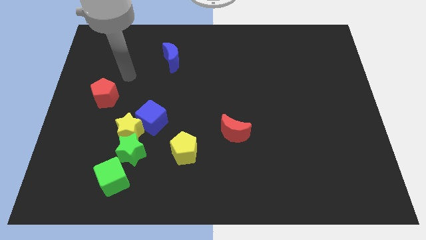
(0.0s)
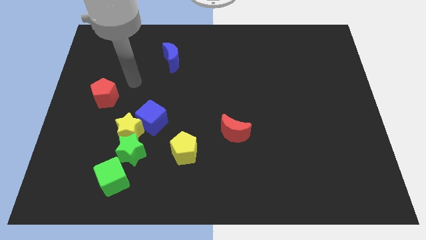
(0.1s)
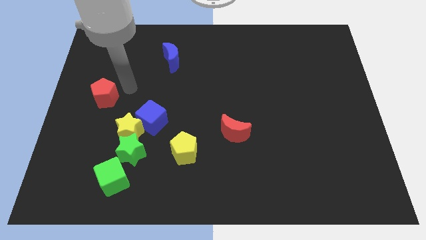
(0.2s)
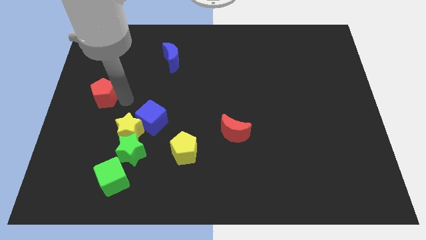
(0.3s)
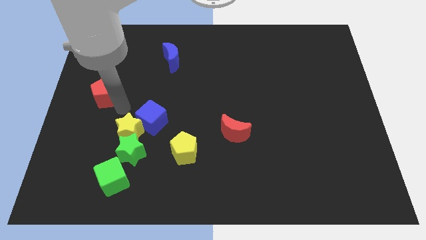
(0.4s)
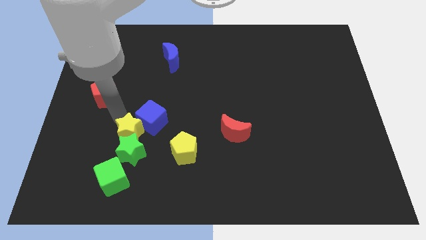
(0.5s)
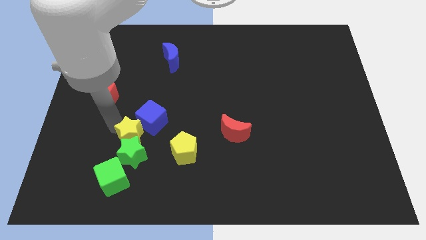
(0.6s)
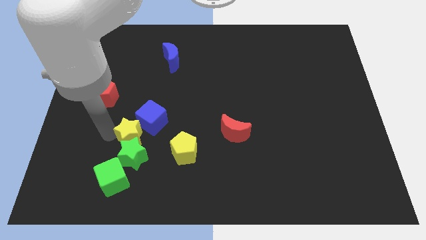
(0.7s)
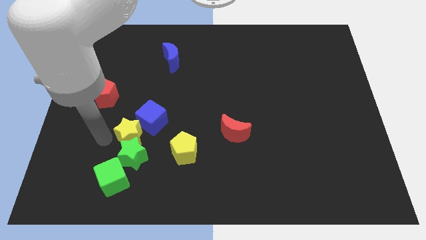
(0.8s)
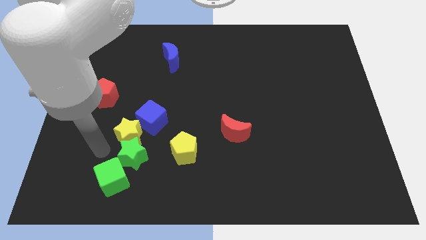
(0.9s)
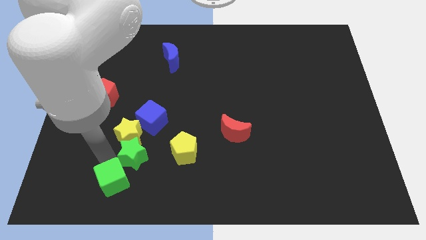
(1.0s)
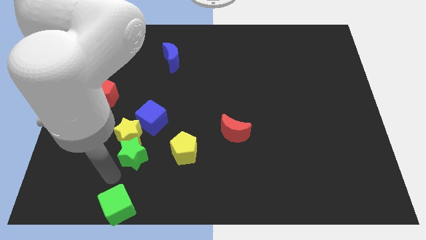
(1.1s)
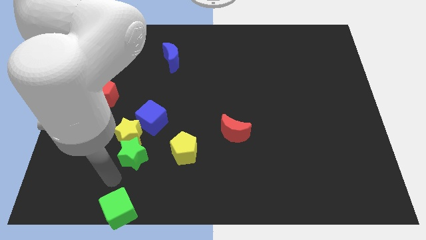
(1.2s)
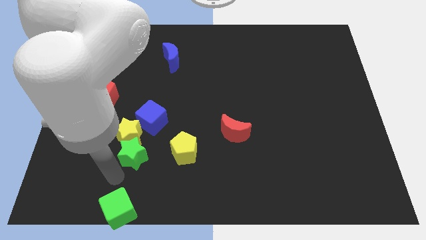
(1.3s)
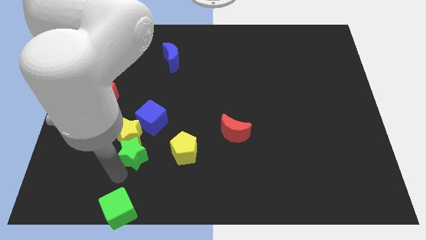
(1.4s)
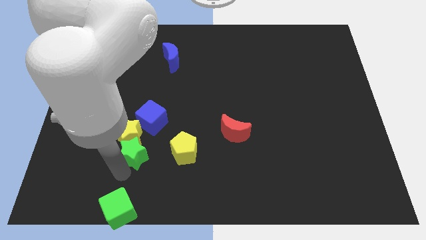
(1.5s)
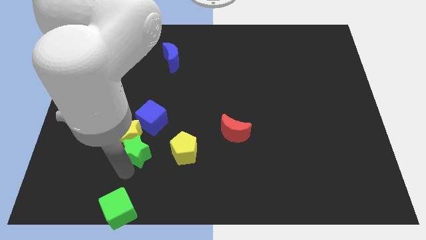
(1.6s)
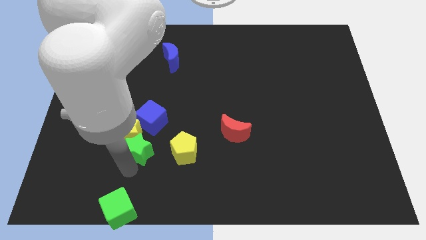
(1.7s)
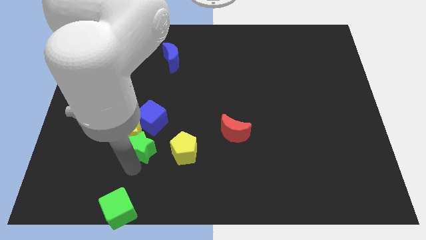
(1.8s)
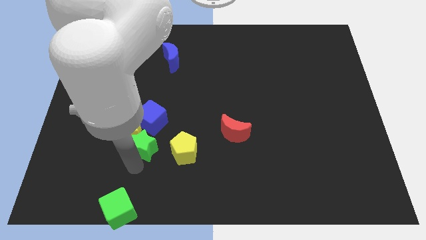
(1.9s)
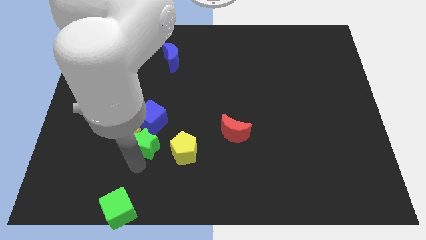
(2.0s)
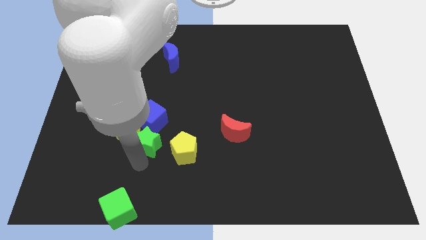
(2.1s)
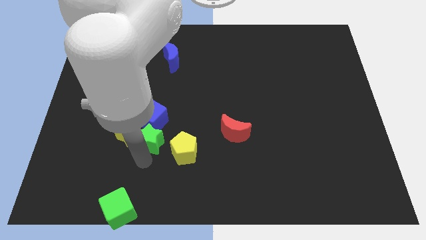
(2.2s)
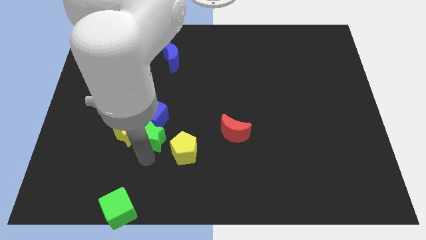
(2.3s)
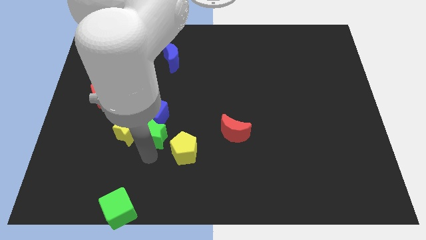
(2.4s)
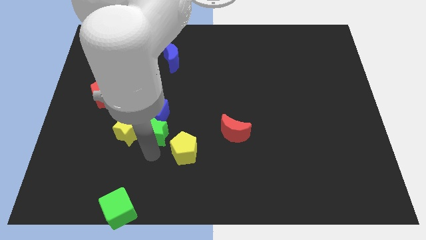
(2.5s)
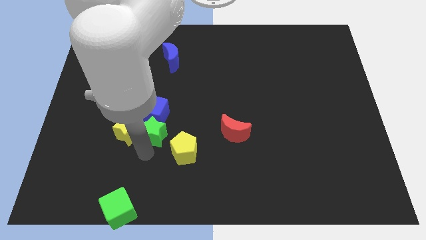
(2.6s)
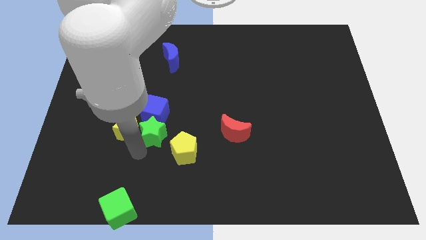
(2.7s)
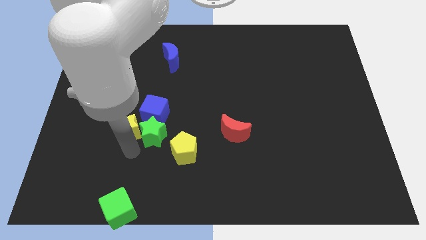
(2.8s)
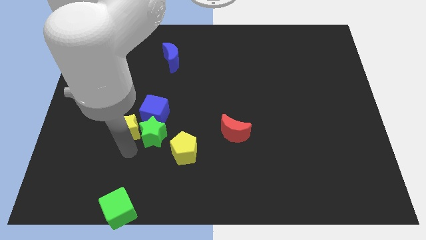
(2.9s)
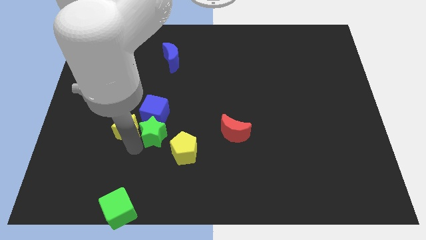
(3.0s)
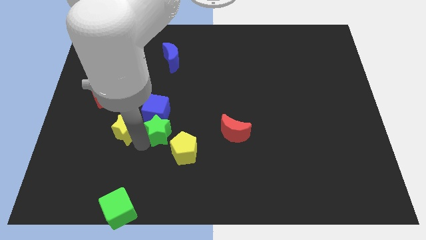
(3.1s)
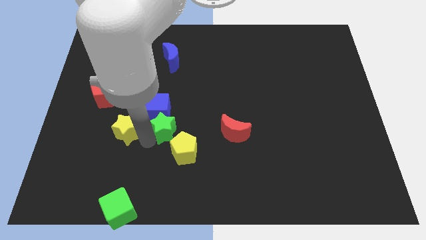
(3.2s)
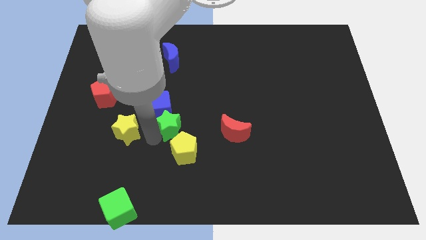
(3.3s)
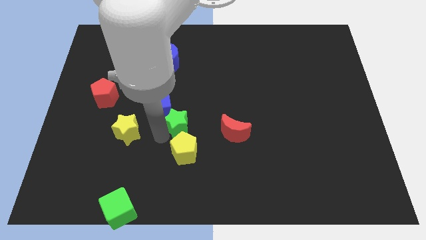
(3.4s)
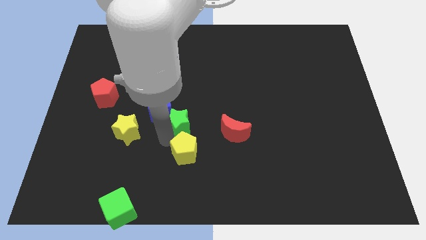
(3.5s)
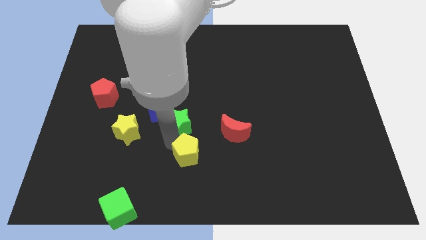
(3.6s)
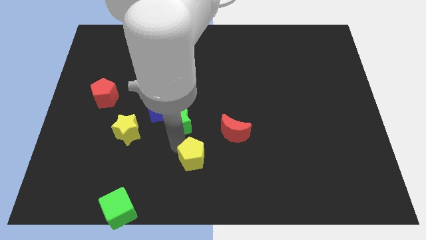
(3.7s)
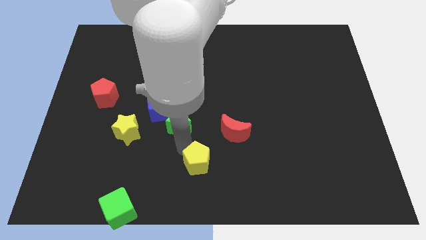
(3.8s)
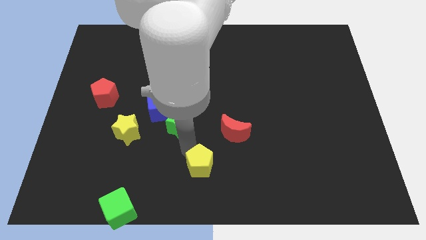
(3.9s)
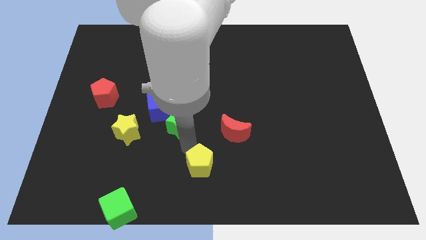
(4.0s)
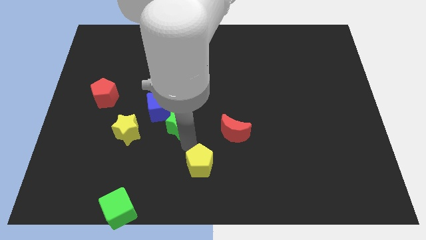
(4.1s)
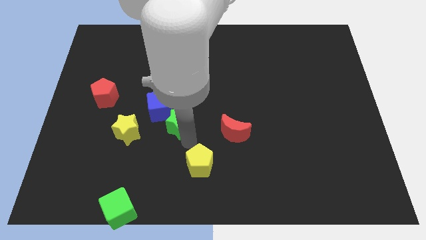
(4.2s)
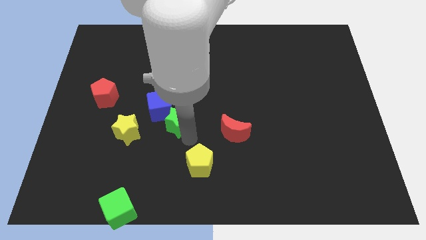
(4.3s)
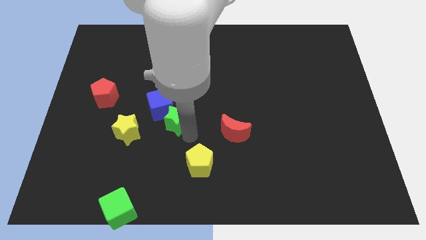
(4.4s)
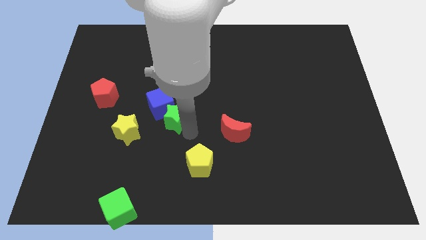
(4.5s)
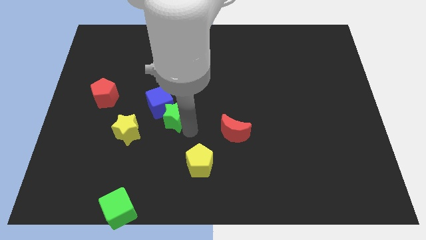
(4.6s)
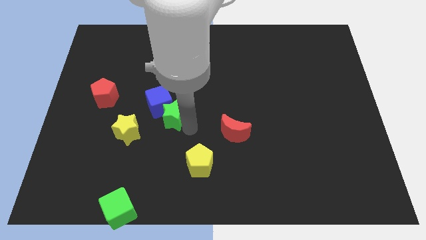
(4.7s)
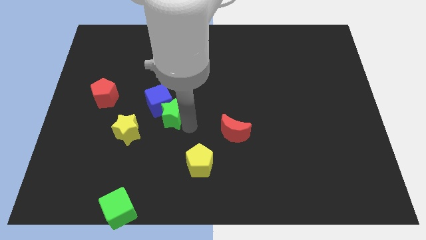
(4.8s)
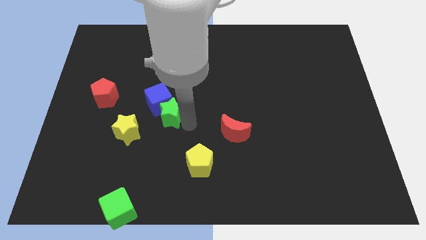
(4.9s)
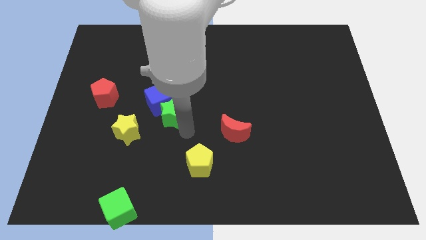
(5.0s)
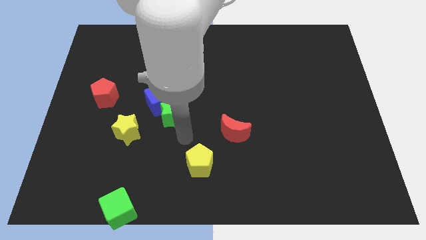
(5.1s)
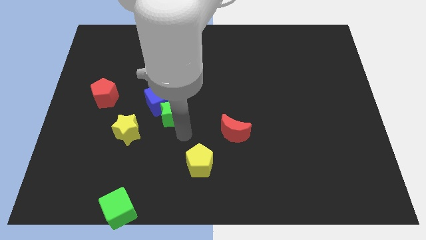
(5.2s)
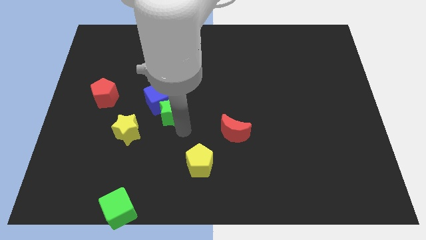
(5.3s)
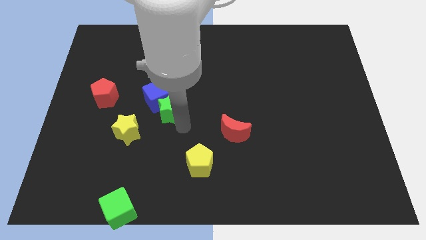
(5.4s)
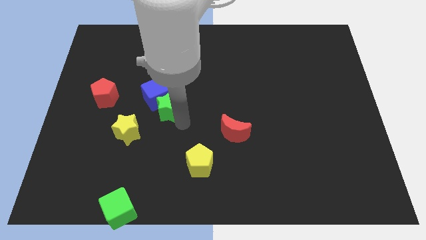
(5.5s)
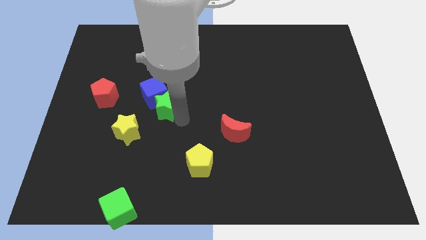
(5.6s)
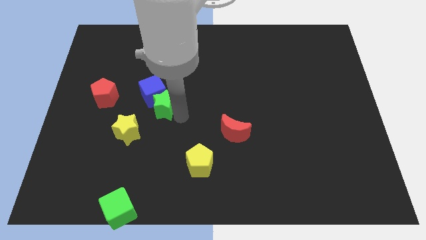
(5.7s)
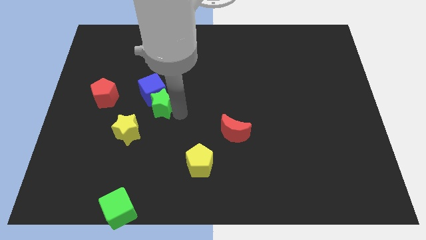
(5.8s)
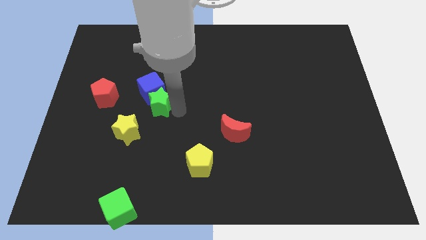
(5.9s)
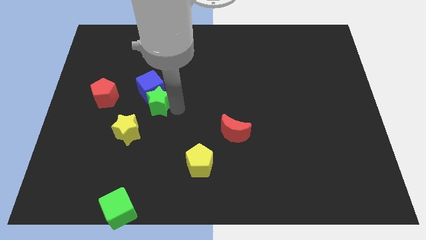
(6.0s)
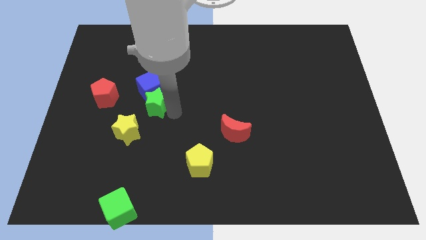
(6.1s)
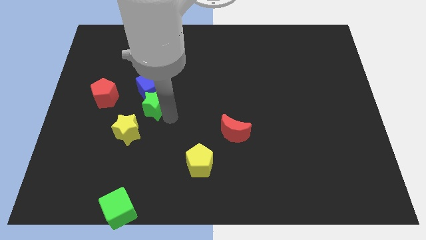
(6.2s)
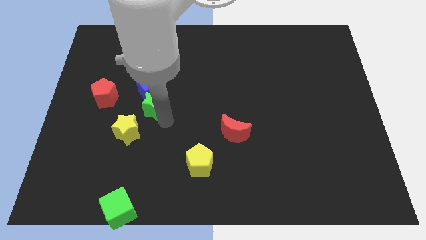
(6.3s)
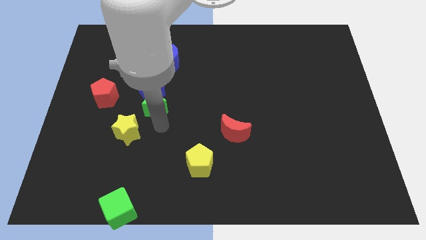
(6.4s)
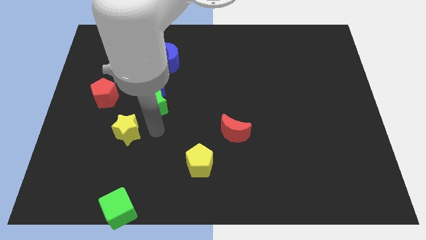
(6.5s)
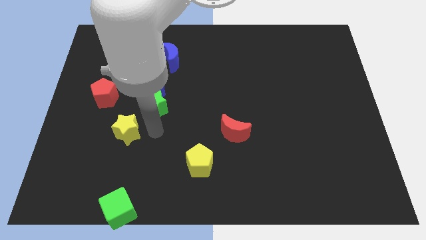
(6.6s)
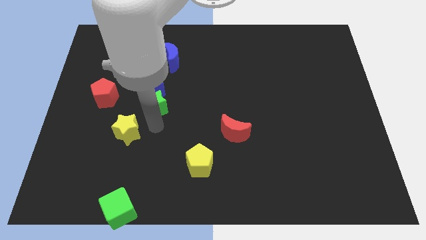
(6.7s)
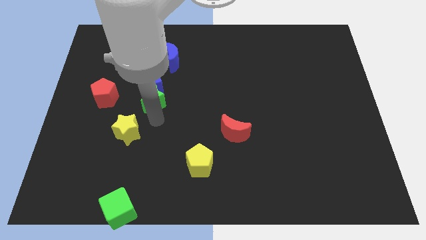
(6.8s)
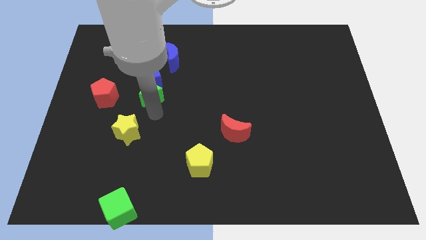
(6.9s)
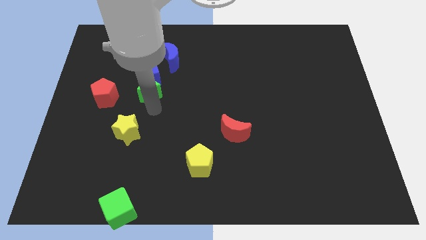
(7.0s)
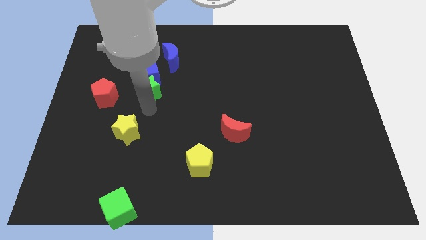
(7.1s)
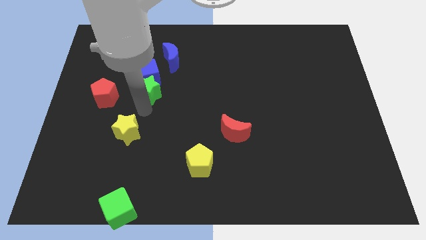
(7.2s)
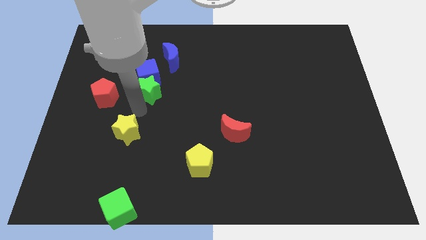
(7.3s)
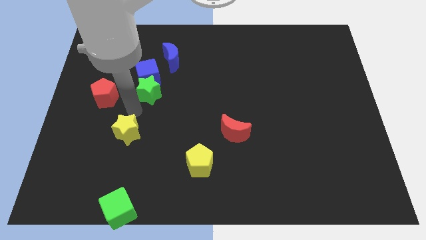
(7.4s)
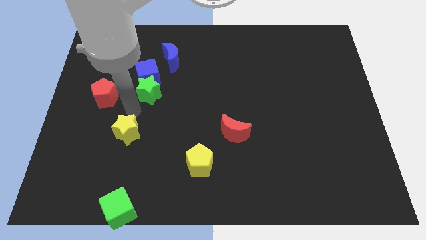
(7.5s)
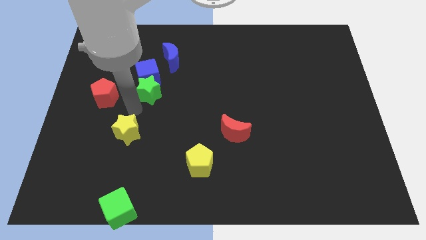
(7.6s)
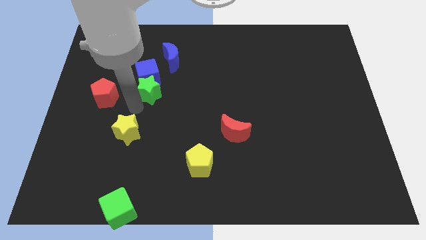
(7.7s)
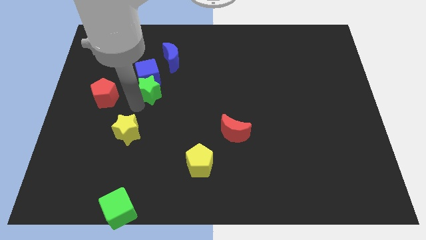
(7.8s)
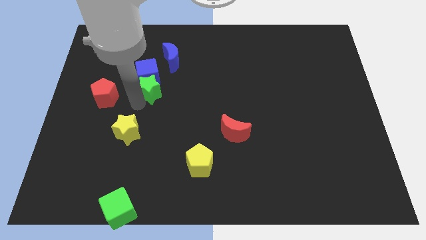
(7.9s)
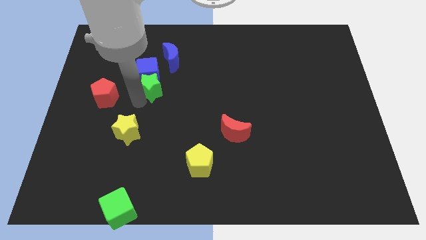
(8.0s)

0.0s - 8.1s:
slide the green star to the bottom left side of the blue moon
